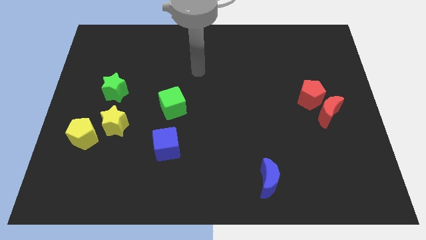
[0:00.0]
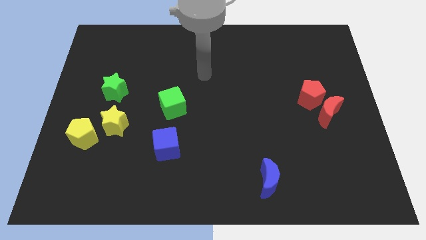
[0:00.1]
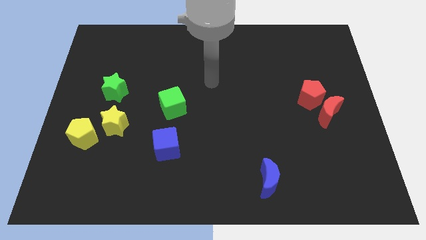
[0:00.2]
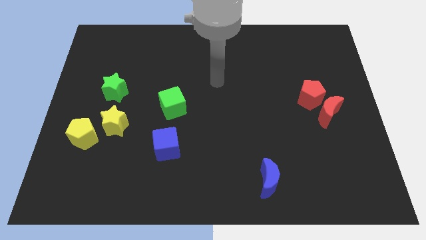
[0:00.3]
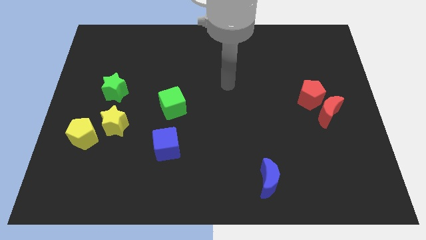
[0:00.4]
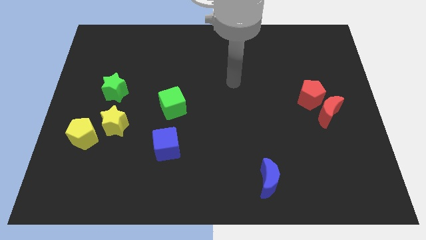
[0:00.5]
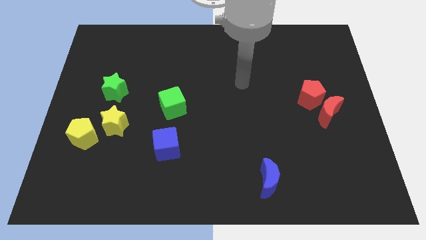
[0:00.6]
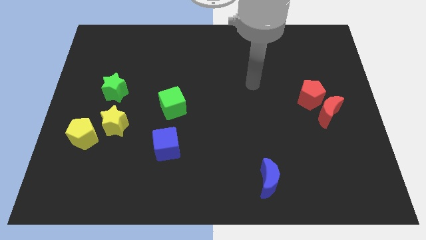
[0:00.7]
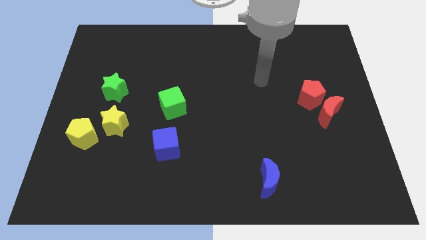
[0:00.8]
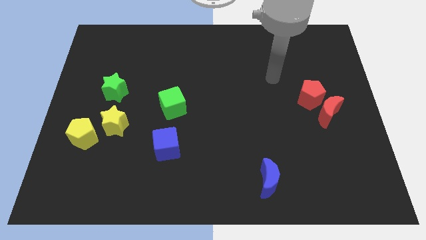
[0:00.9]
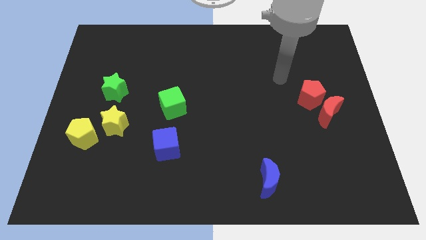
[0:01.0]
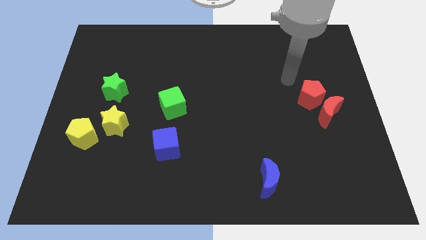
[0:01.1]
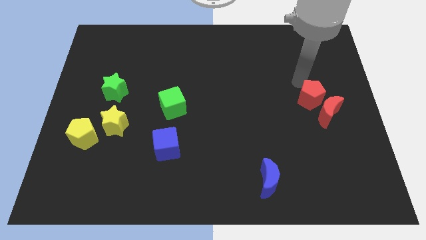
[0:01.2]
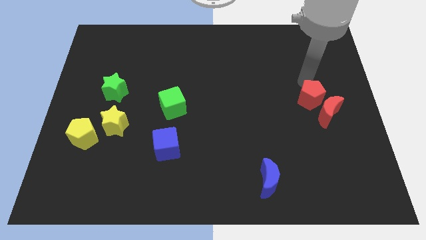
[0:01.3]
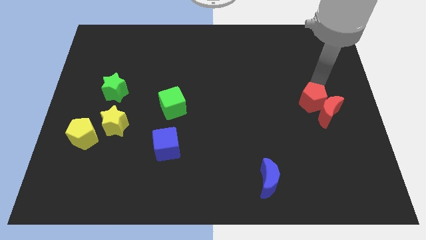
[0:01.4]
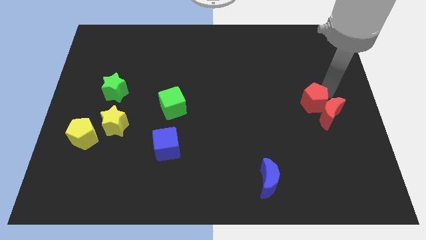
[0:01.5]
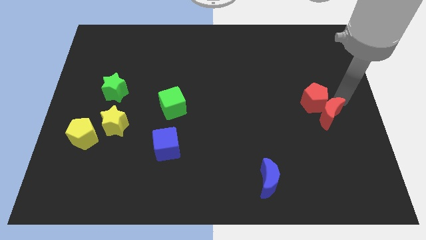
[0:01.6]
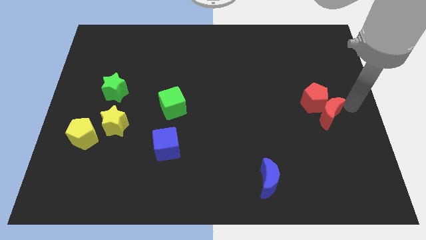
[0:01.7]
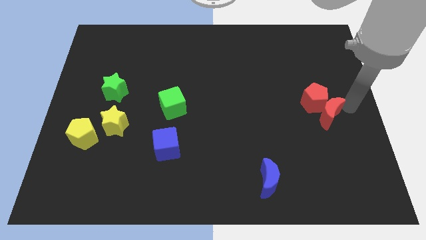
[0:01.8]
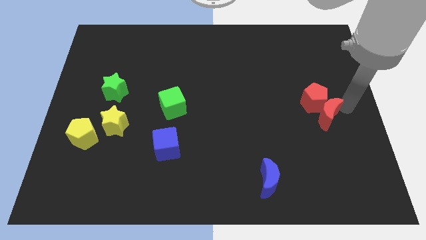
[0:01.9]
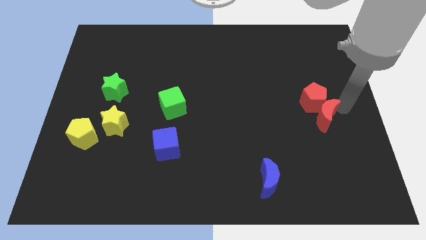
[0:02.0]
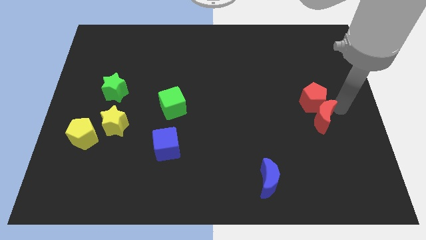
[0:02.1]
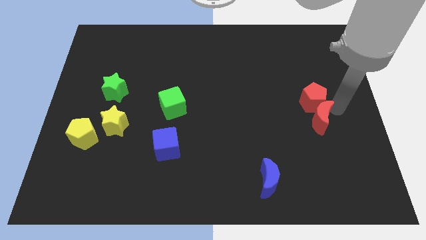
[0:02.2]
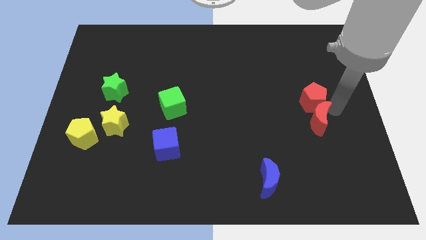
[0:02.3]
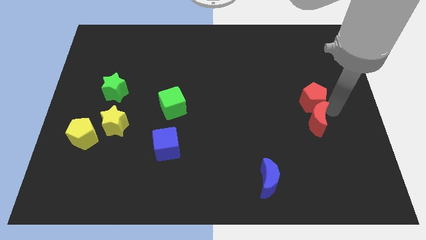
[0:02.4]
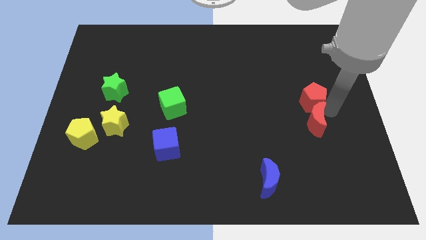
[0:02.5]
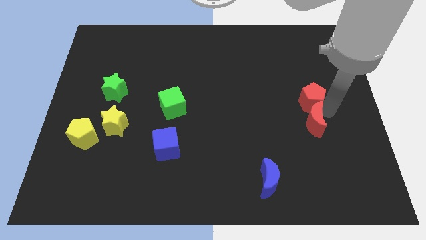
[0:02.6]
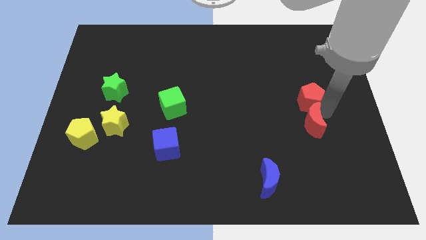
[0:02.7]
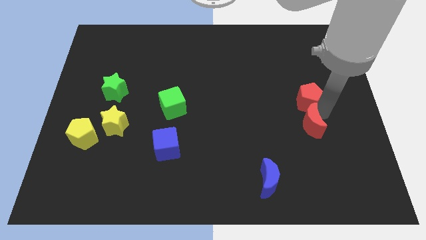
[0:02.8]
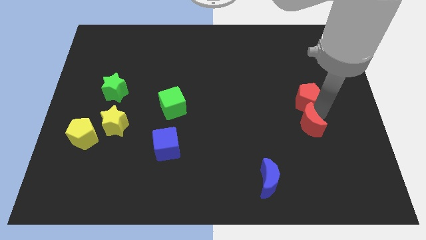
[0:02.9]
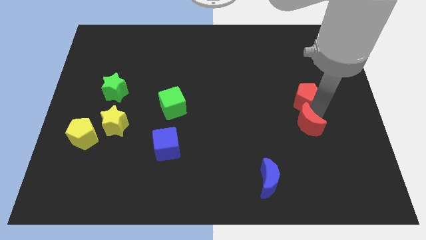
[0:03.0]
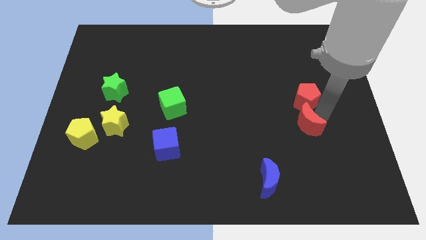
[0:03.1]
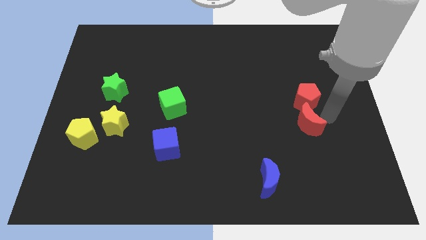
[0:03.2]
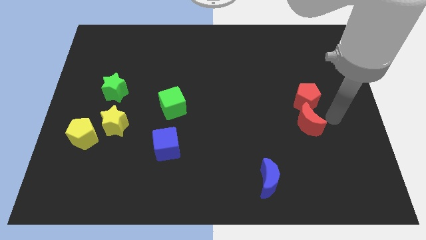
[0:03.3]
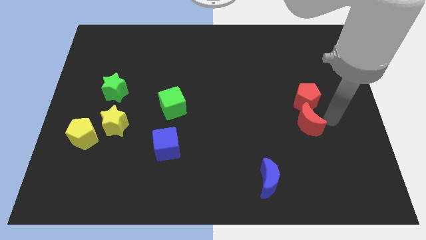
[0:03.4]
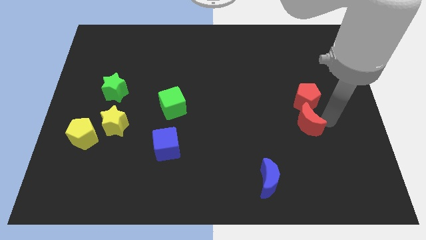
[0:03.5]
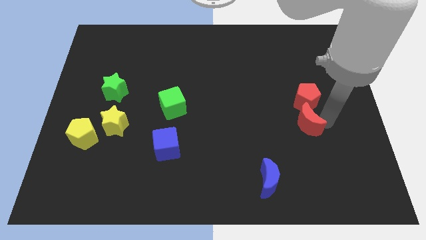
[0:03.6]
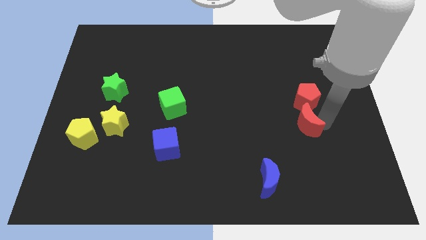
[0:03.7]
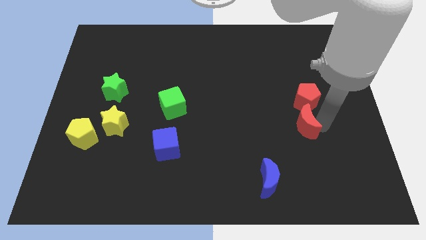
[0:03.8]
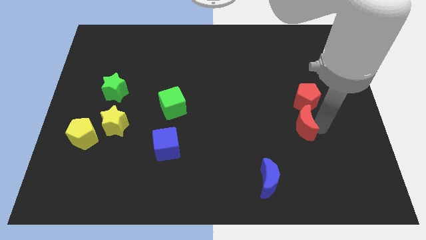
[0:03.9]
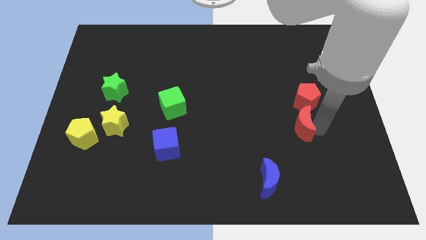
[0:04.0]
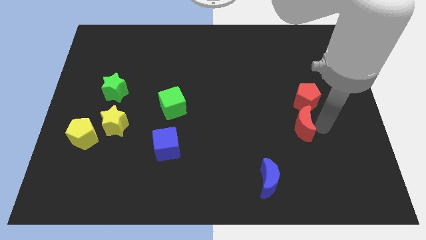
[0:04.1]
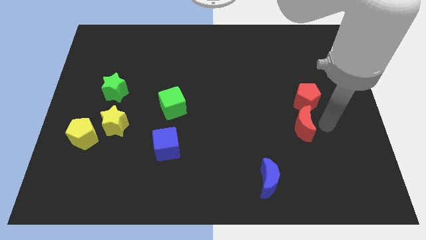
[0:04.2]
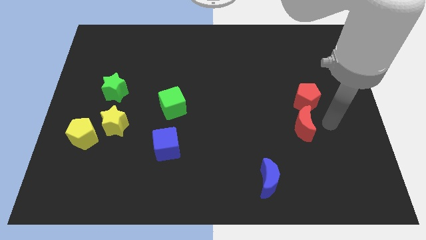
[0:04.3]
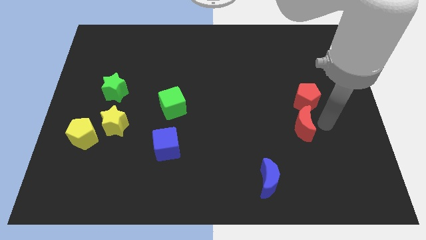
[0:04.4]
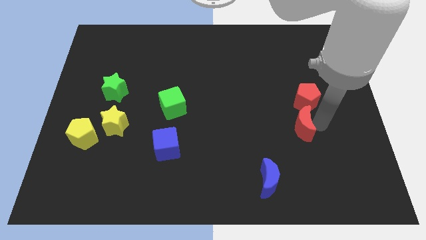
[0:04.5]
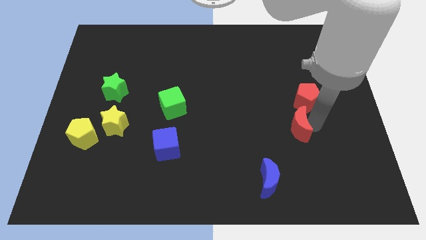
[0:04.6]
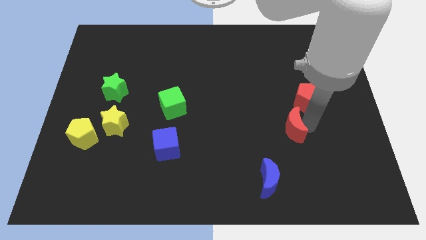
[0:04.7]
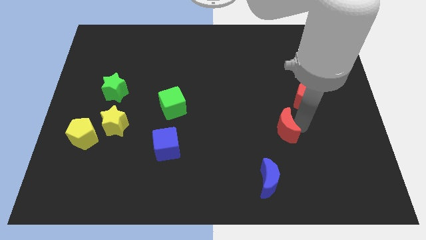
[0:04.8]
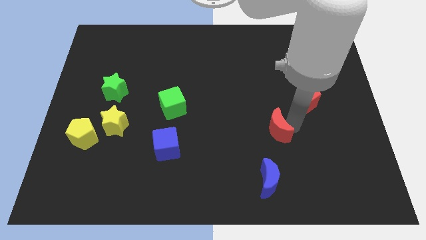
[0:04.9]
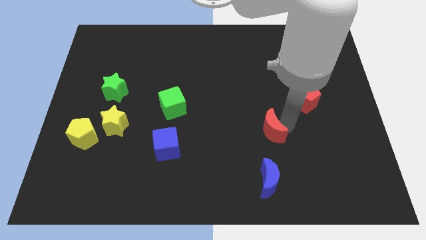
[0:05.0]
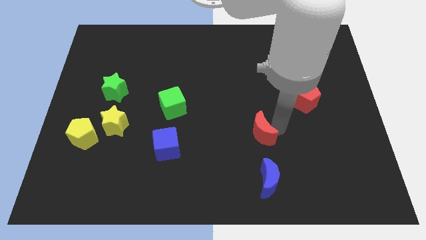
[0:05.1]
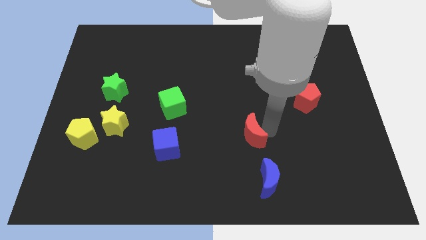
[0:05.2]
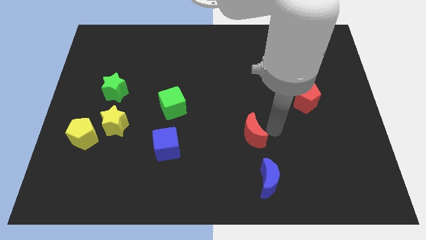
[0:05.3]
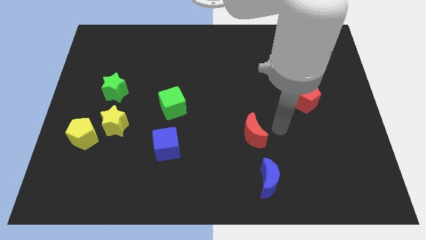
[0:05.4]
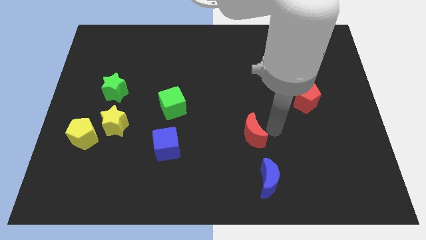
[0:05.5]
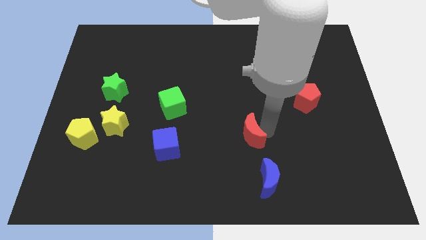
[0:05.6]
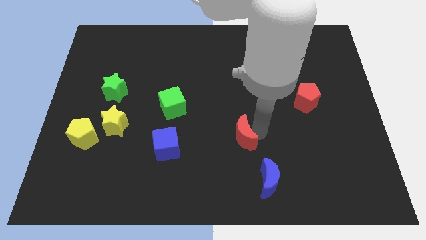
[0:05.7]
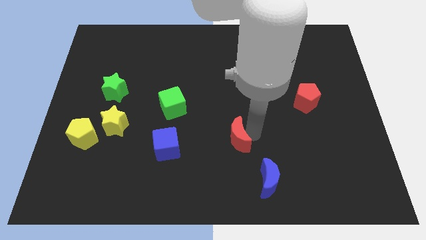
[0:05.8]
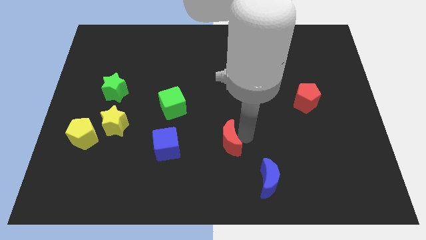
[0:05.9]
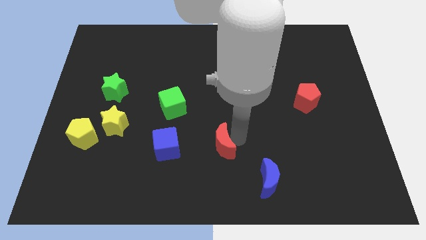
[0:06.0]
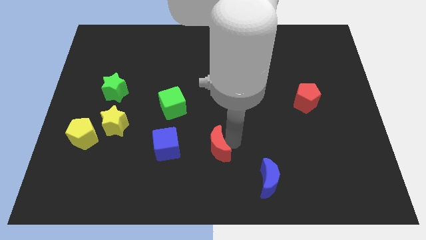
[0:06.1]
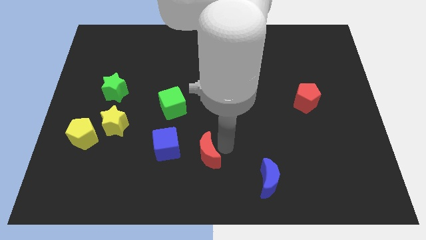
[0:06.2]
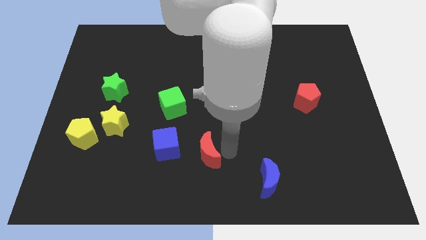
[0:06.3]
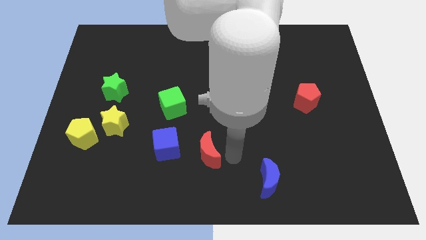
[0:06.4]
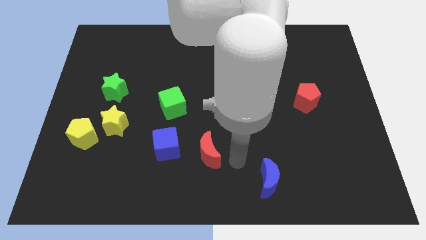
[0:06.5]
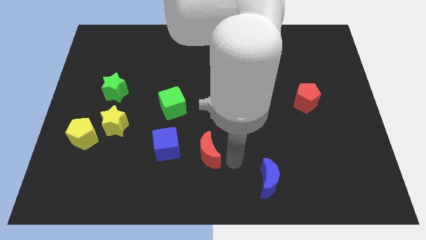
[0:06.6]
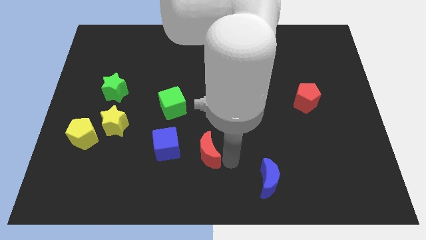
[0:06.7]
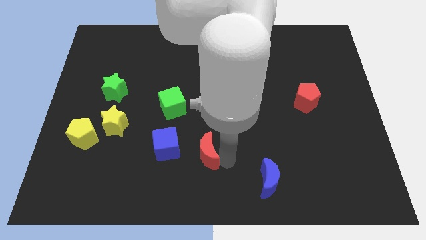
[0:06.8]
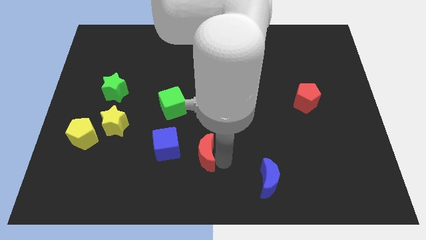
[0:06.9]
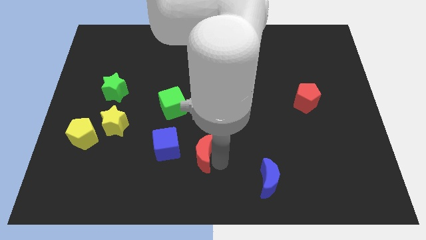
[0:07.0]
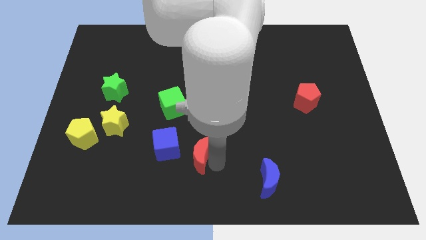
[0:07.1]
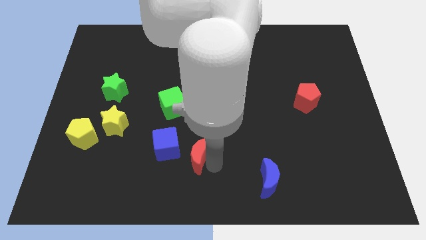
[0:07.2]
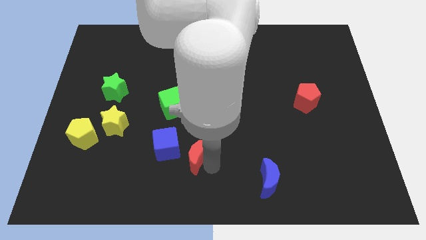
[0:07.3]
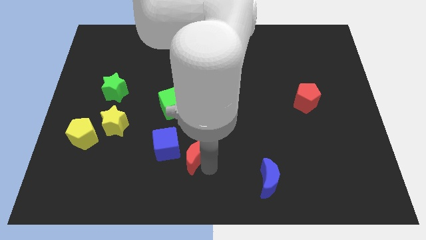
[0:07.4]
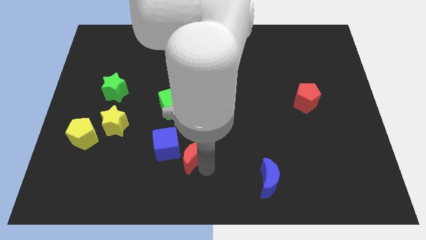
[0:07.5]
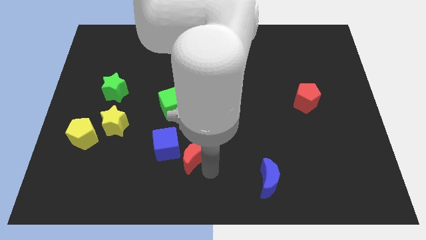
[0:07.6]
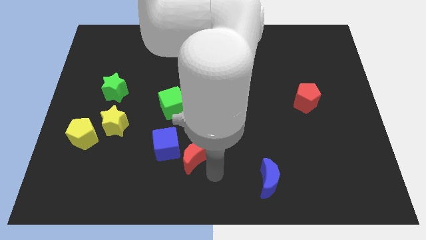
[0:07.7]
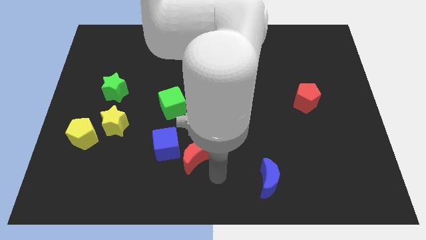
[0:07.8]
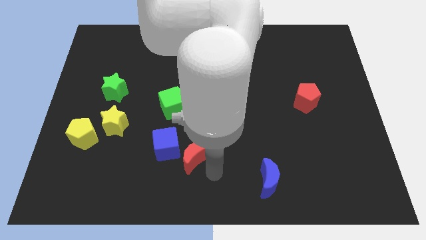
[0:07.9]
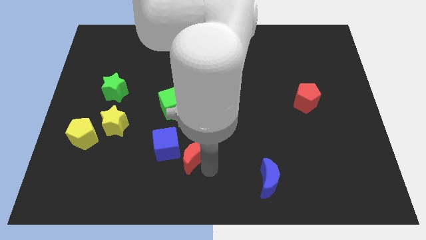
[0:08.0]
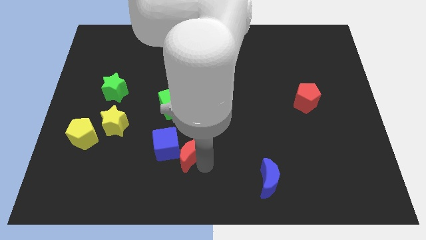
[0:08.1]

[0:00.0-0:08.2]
move the red moon towards the blue cube
